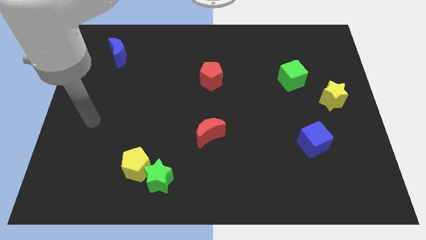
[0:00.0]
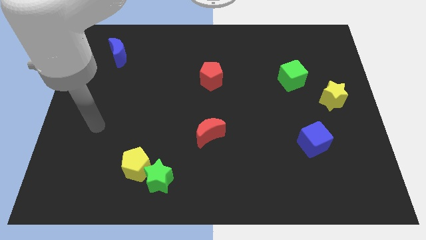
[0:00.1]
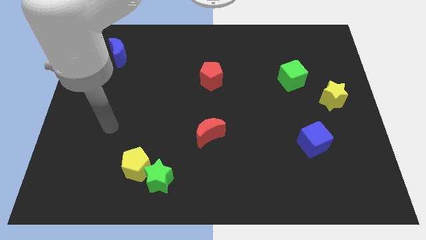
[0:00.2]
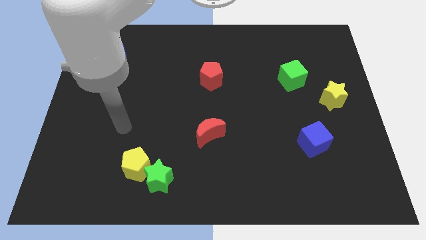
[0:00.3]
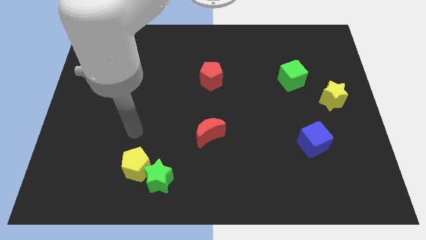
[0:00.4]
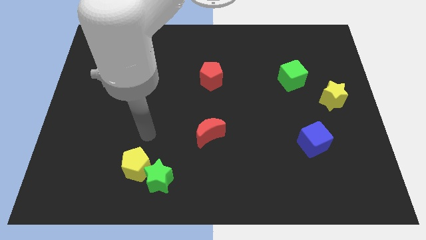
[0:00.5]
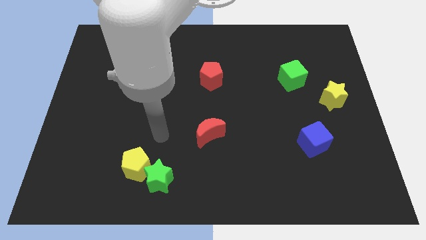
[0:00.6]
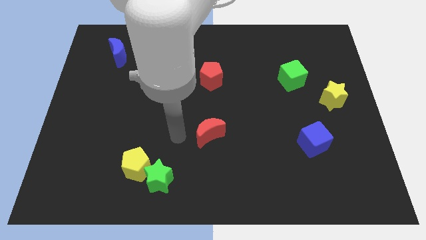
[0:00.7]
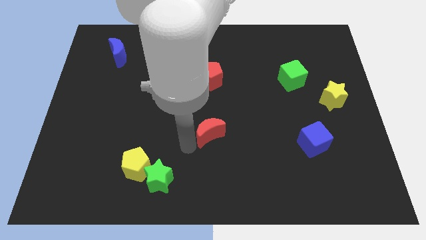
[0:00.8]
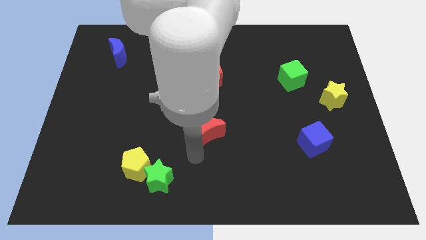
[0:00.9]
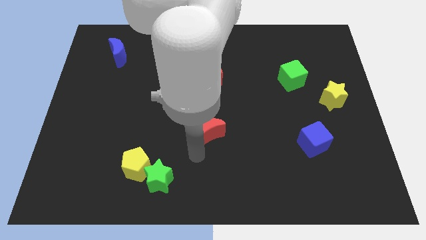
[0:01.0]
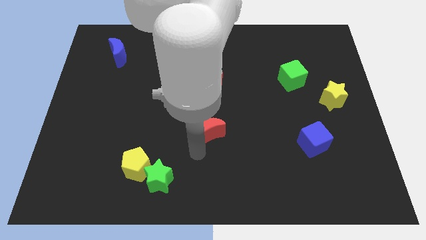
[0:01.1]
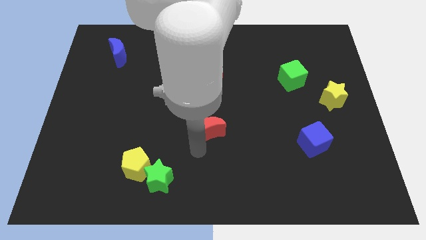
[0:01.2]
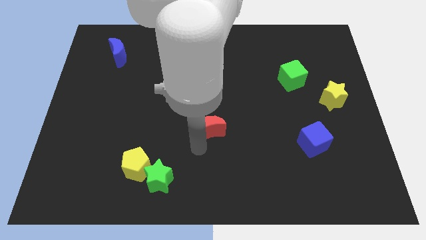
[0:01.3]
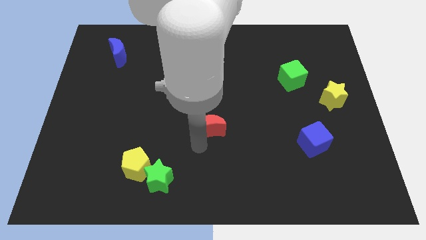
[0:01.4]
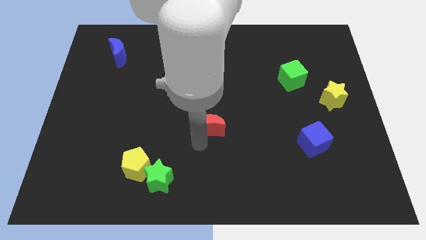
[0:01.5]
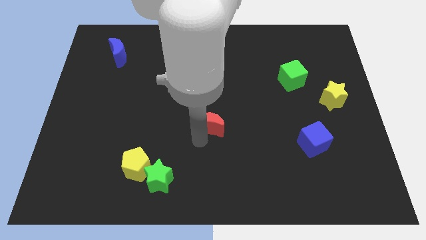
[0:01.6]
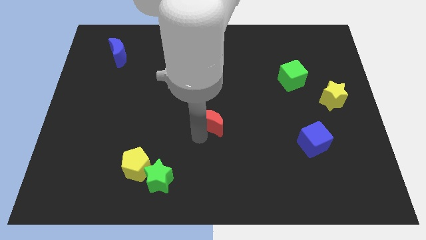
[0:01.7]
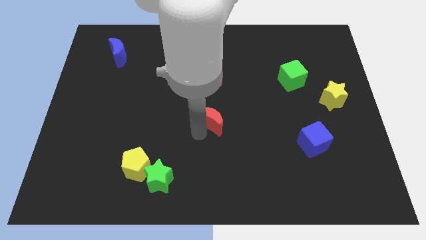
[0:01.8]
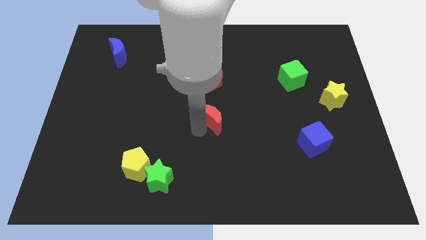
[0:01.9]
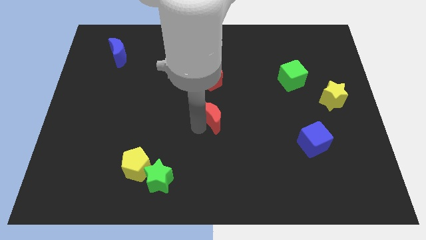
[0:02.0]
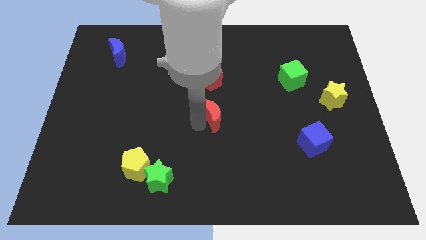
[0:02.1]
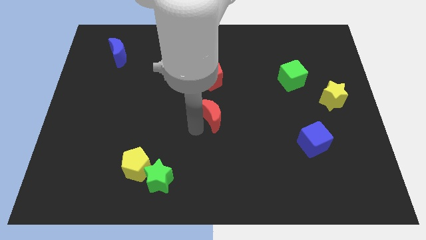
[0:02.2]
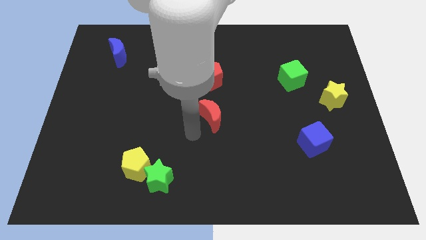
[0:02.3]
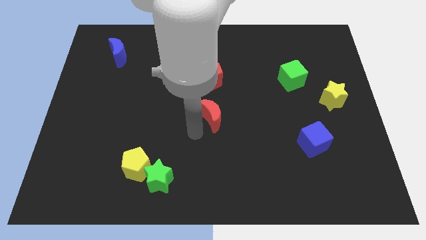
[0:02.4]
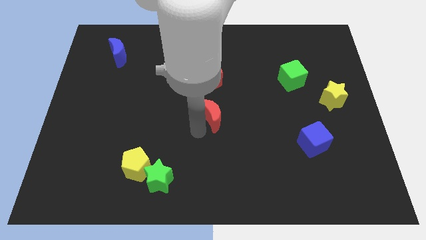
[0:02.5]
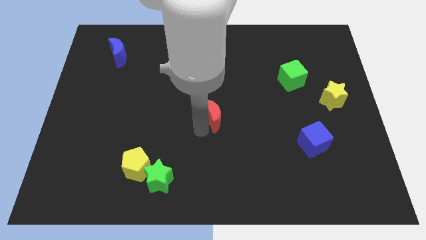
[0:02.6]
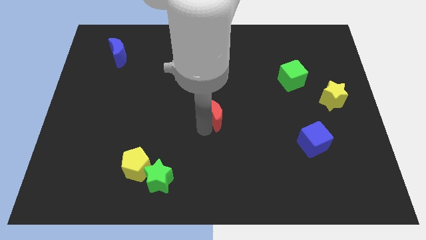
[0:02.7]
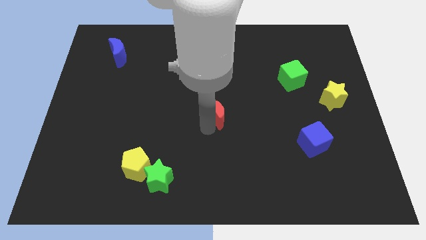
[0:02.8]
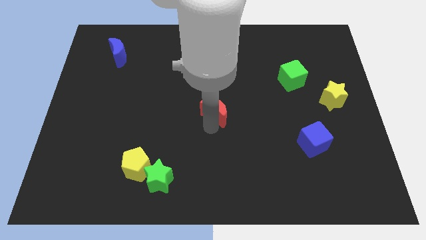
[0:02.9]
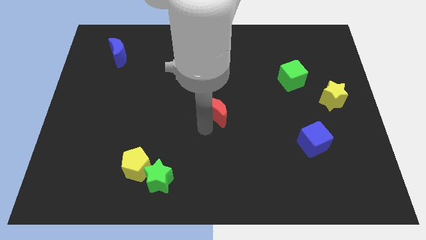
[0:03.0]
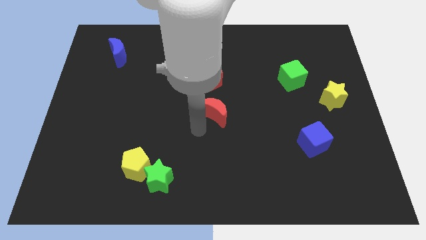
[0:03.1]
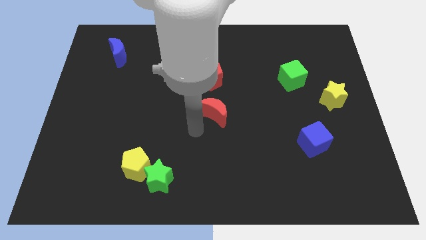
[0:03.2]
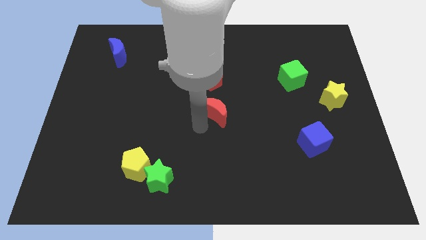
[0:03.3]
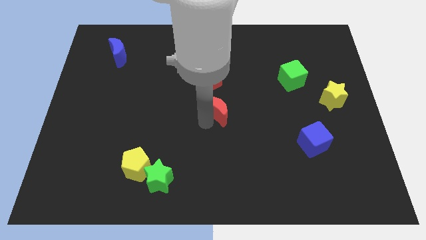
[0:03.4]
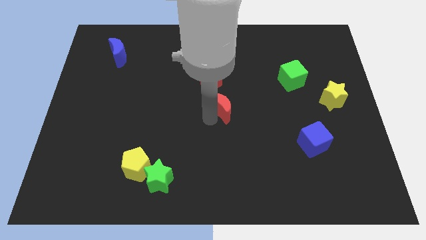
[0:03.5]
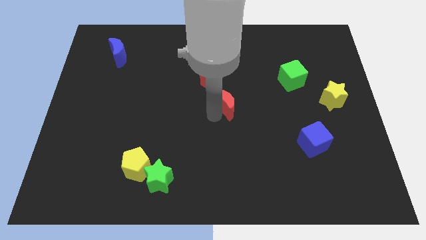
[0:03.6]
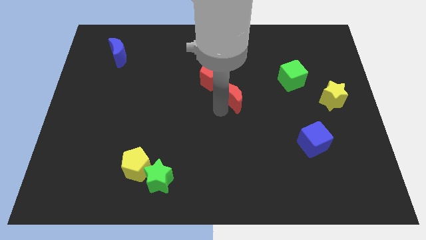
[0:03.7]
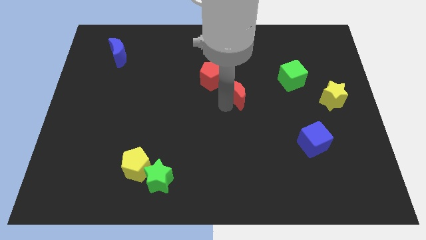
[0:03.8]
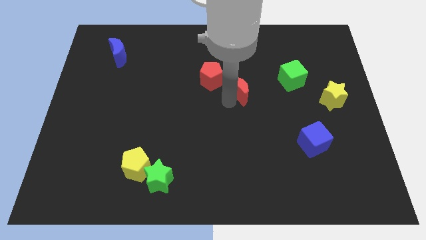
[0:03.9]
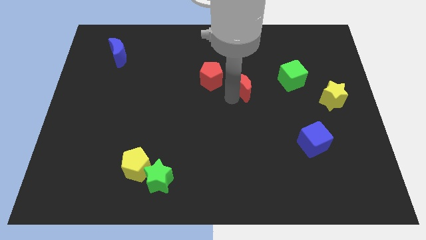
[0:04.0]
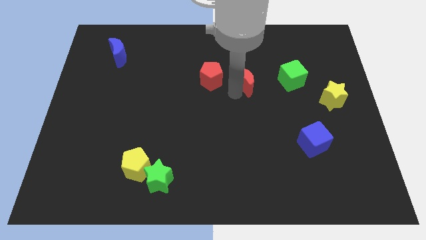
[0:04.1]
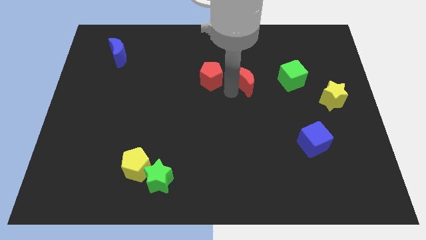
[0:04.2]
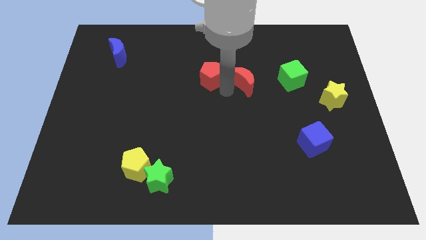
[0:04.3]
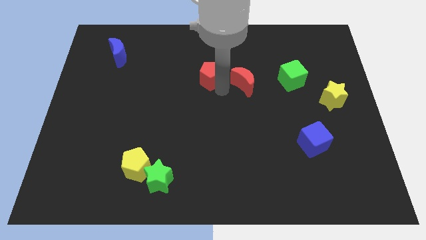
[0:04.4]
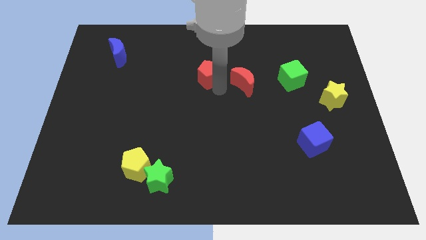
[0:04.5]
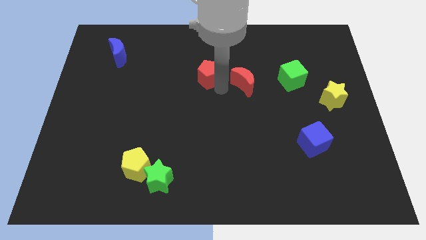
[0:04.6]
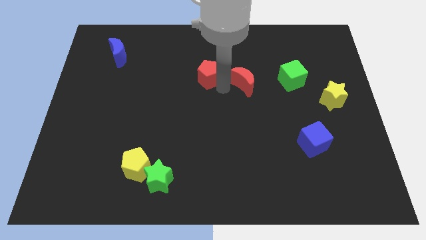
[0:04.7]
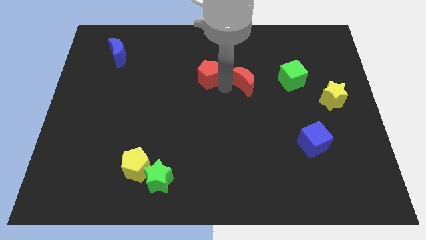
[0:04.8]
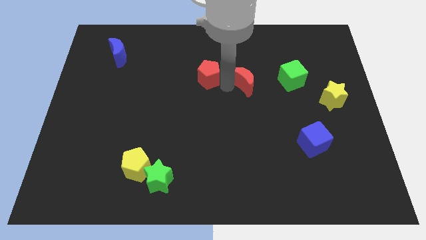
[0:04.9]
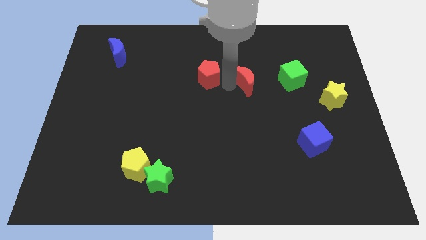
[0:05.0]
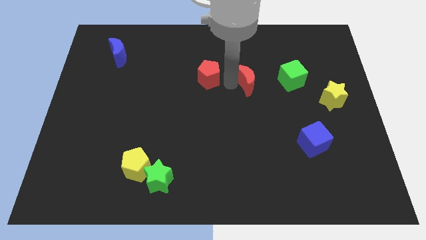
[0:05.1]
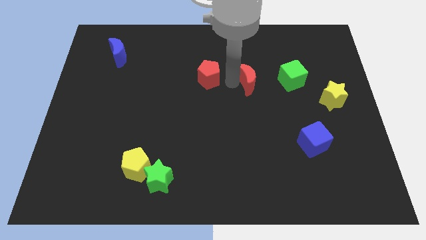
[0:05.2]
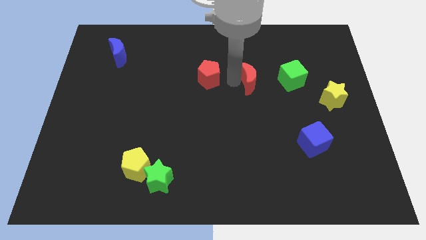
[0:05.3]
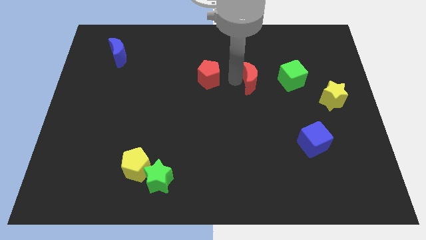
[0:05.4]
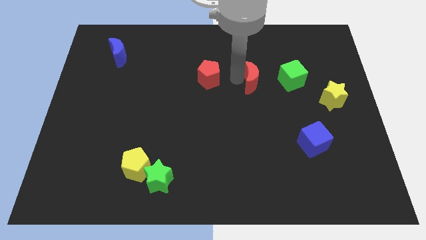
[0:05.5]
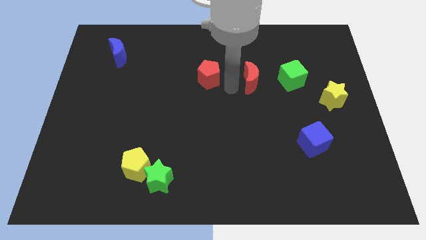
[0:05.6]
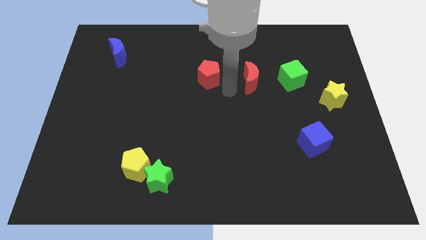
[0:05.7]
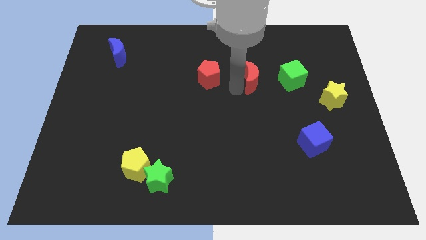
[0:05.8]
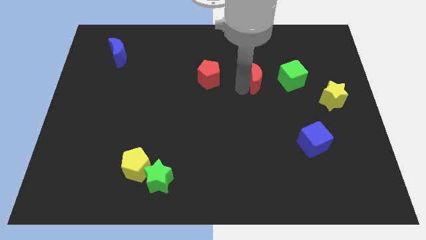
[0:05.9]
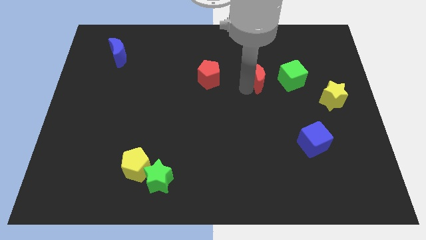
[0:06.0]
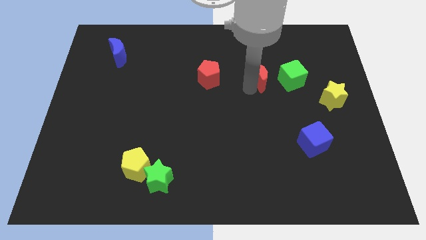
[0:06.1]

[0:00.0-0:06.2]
move the red moon diagonally upwards and to the right

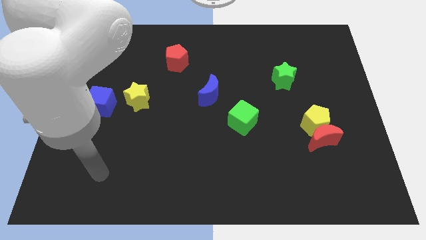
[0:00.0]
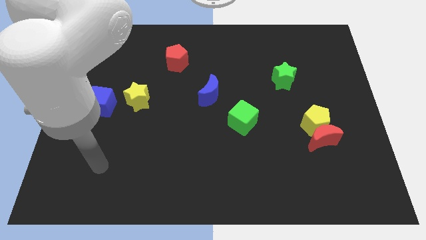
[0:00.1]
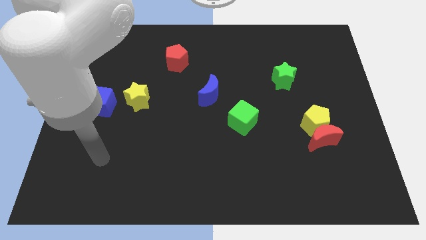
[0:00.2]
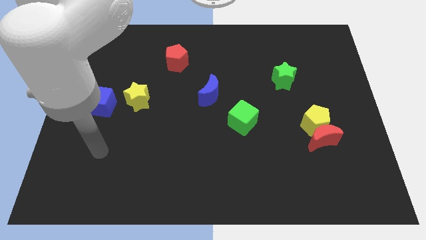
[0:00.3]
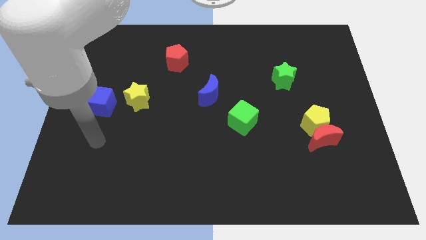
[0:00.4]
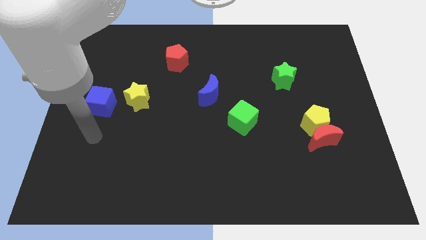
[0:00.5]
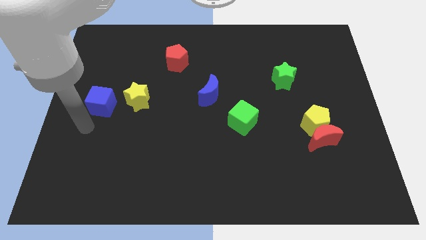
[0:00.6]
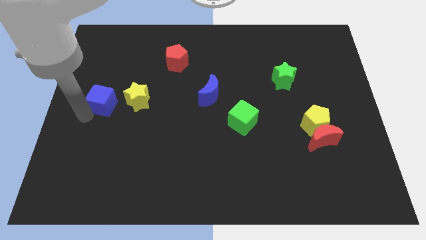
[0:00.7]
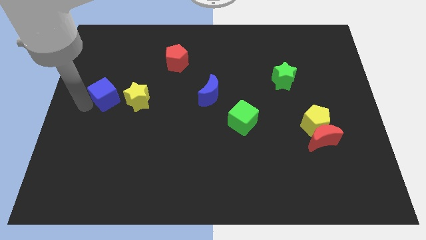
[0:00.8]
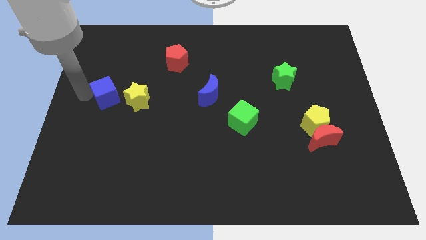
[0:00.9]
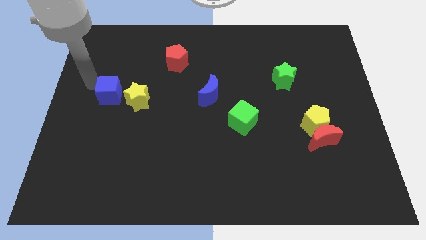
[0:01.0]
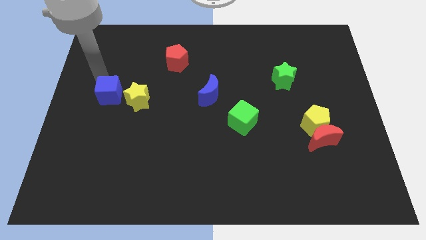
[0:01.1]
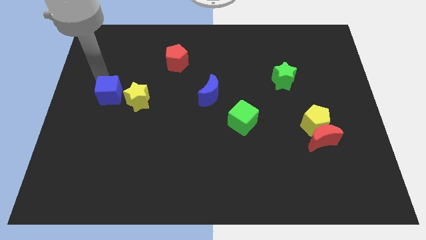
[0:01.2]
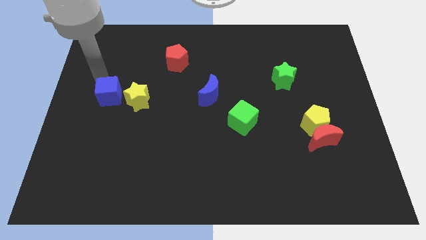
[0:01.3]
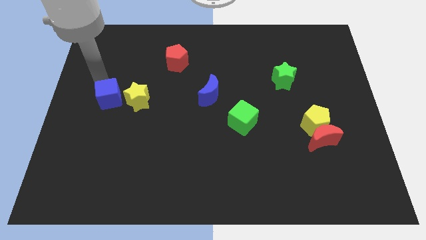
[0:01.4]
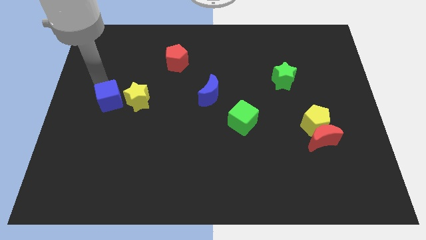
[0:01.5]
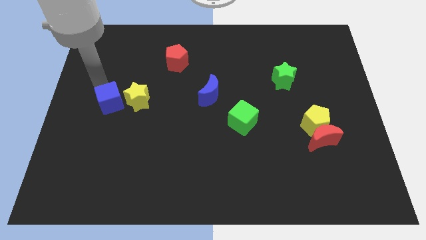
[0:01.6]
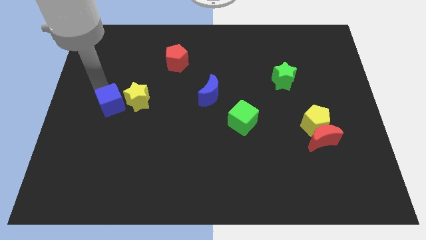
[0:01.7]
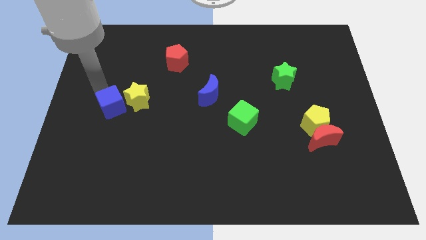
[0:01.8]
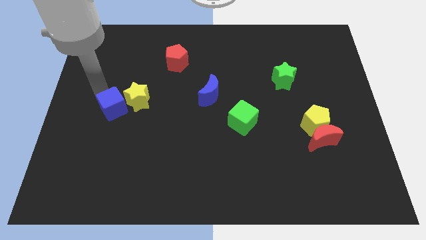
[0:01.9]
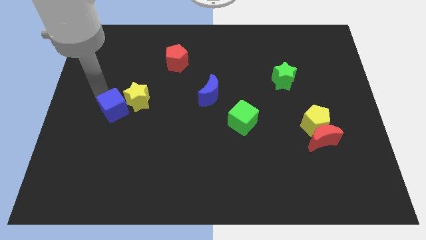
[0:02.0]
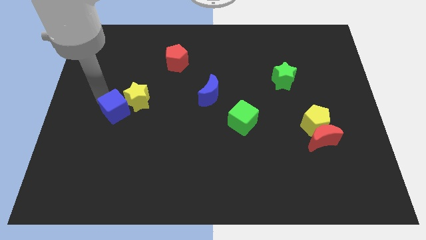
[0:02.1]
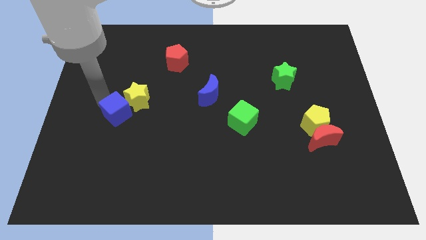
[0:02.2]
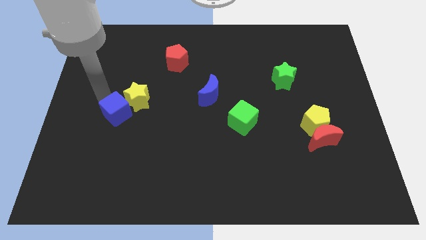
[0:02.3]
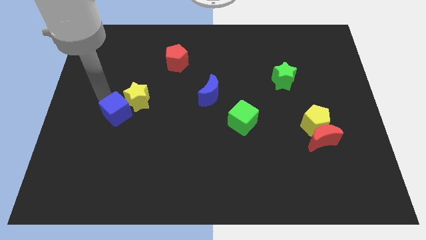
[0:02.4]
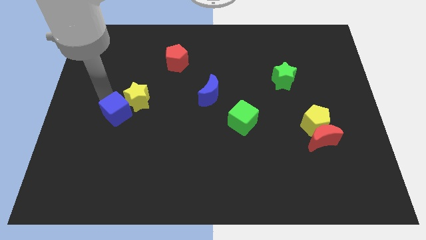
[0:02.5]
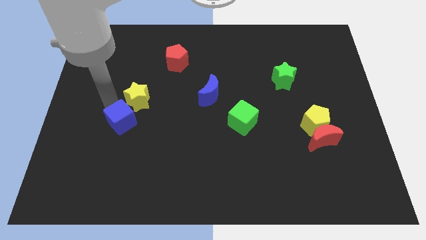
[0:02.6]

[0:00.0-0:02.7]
slide the blue cube downwards and to the right diagonally a little bit
